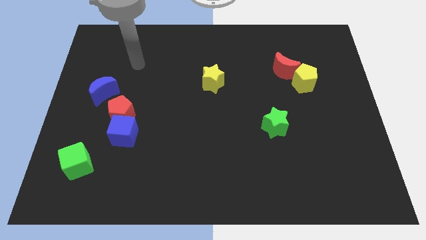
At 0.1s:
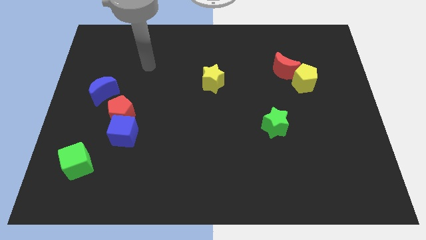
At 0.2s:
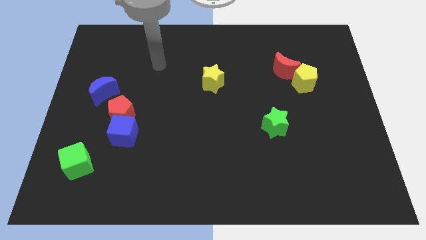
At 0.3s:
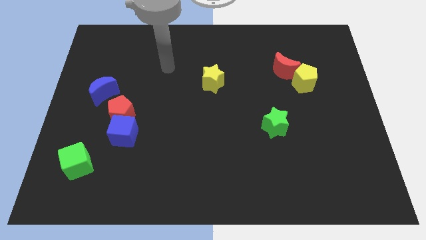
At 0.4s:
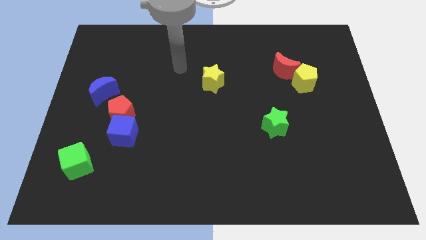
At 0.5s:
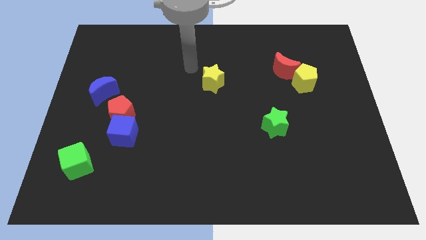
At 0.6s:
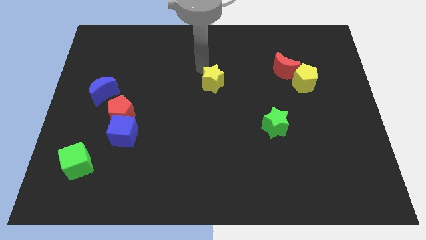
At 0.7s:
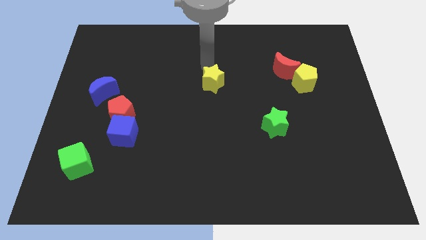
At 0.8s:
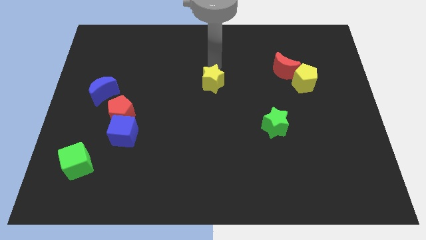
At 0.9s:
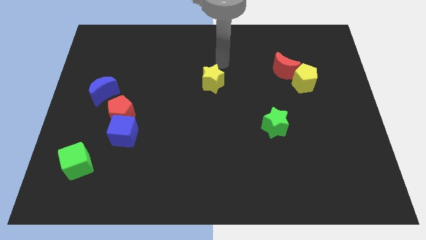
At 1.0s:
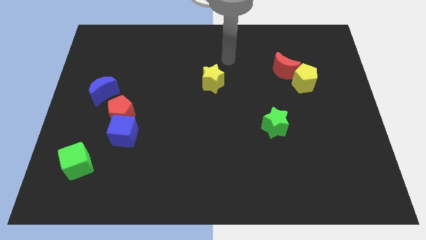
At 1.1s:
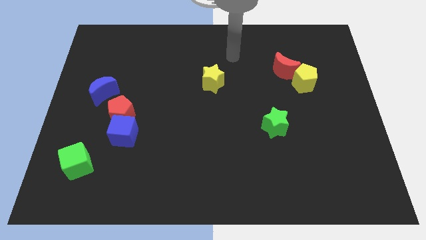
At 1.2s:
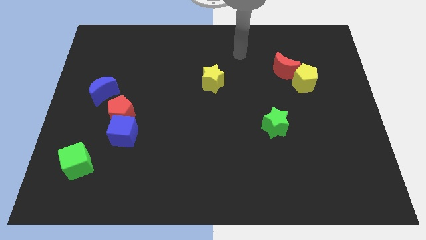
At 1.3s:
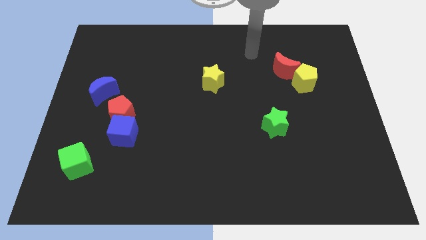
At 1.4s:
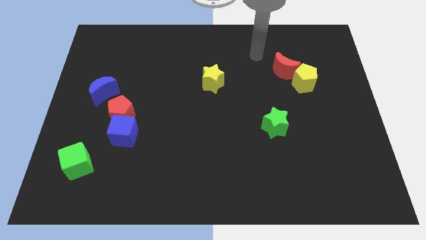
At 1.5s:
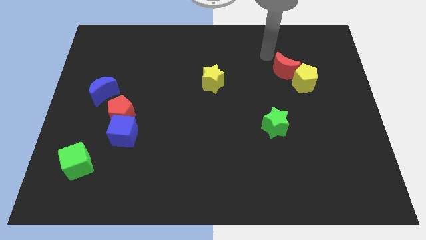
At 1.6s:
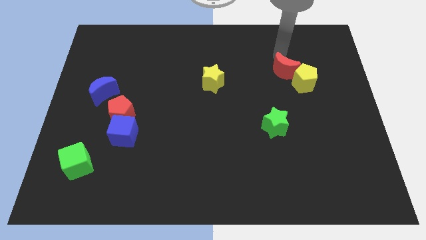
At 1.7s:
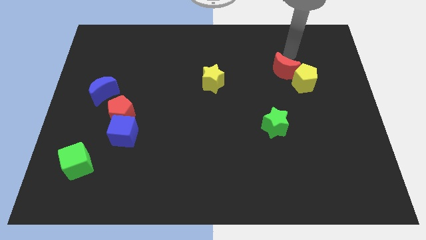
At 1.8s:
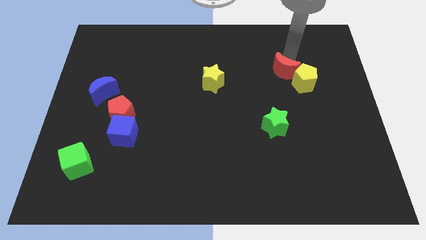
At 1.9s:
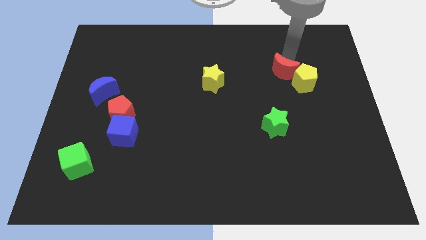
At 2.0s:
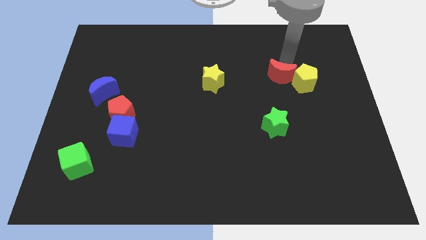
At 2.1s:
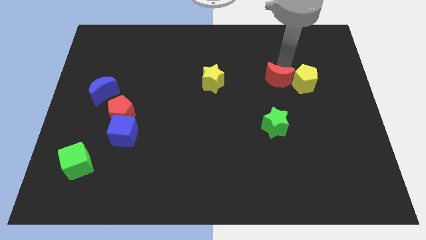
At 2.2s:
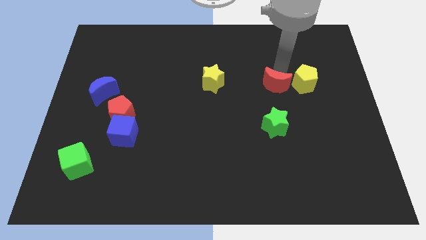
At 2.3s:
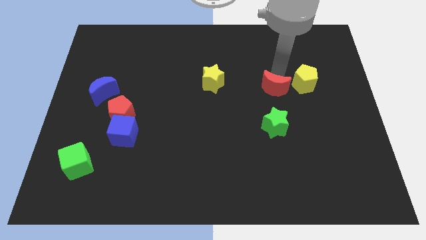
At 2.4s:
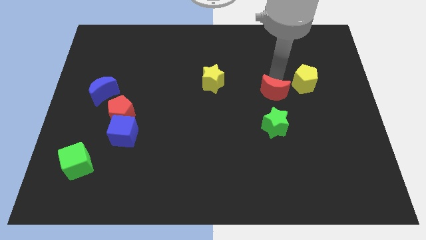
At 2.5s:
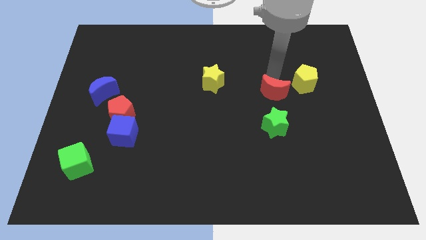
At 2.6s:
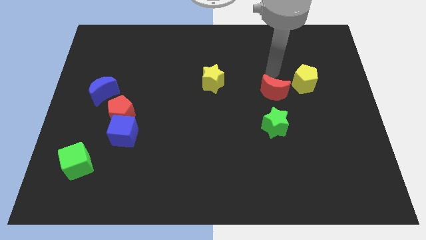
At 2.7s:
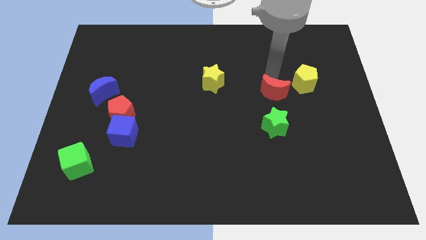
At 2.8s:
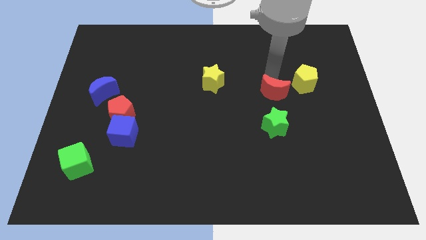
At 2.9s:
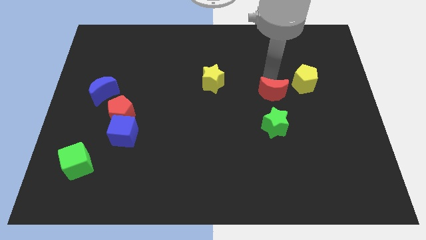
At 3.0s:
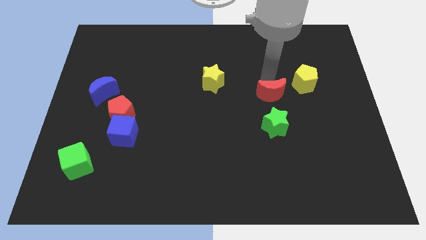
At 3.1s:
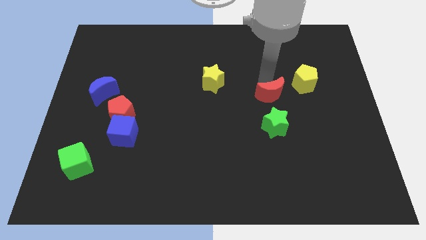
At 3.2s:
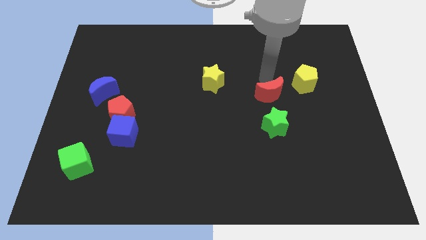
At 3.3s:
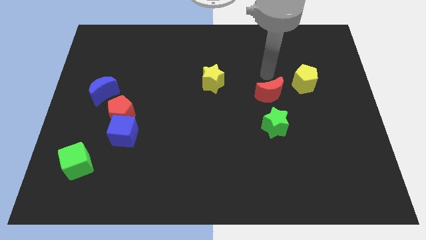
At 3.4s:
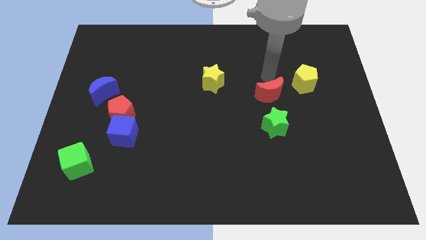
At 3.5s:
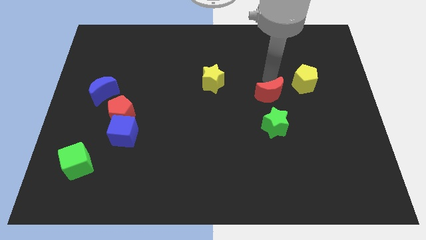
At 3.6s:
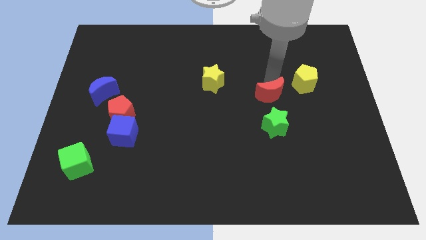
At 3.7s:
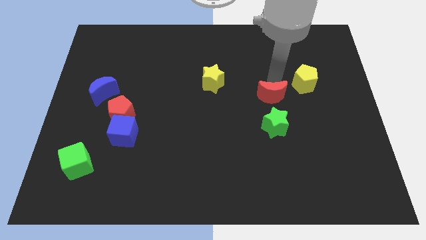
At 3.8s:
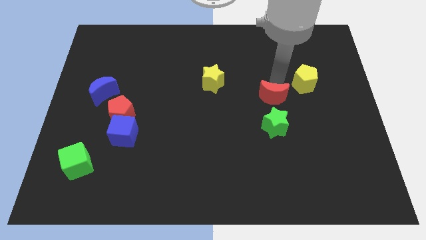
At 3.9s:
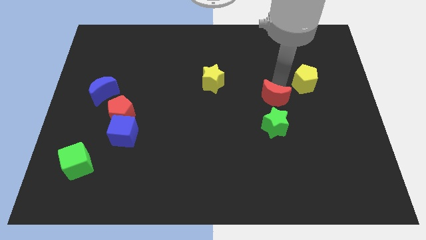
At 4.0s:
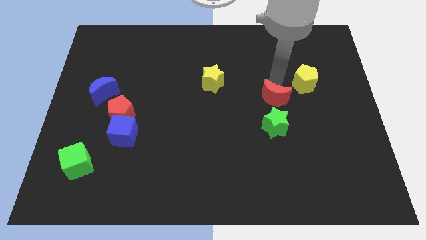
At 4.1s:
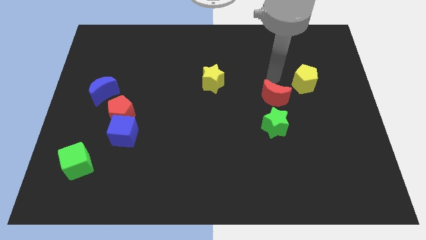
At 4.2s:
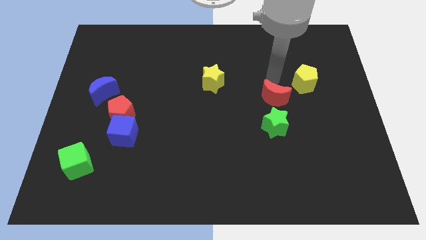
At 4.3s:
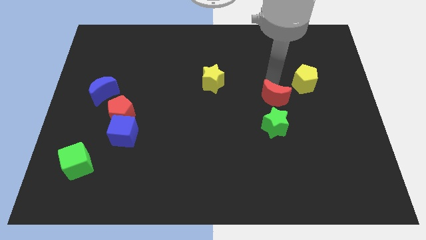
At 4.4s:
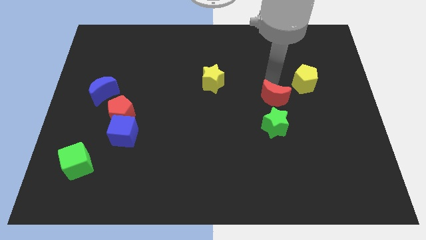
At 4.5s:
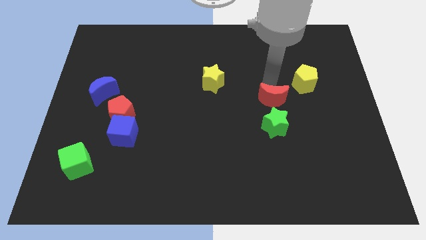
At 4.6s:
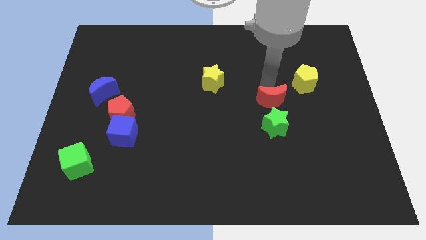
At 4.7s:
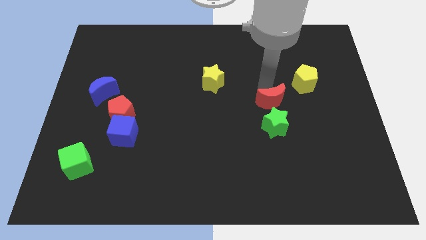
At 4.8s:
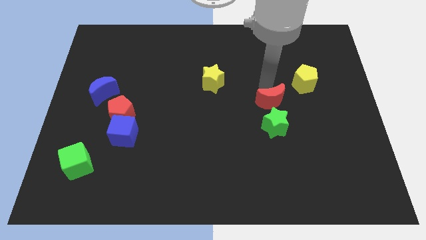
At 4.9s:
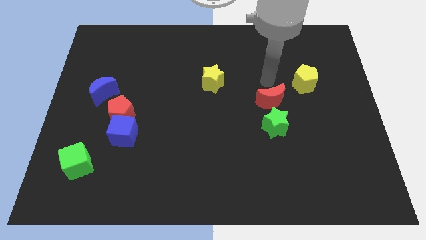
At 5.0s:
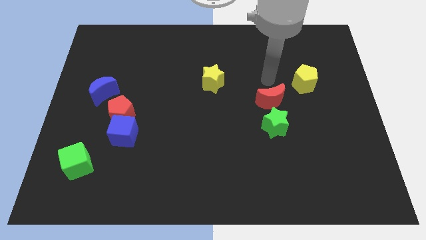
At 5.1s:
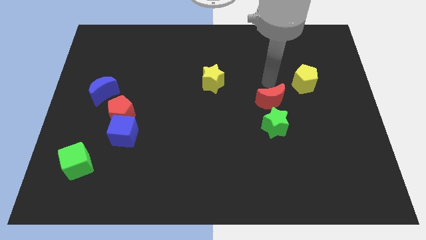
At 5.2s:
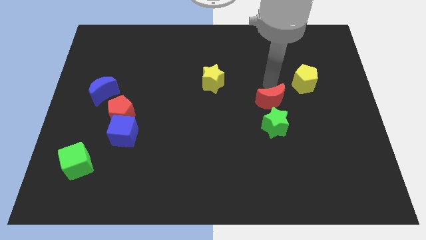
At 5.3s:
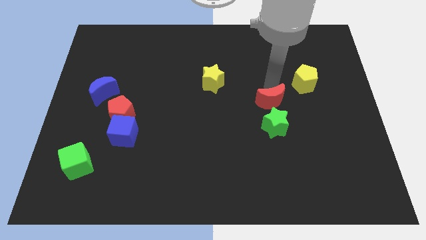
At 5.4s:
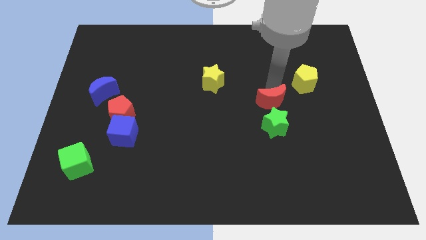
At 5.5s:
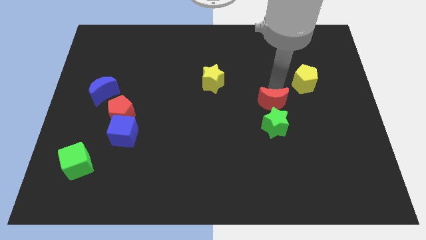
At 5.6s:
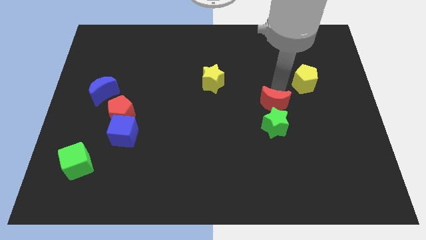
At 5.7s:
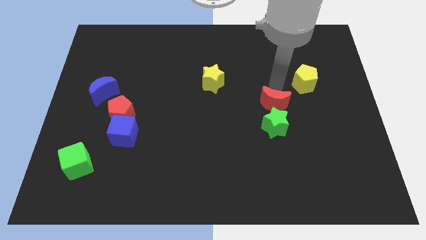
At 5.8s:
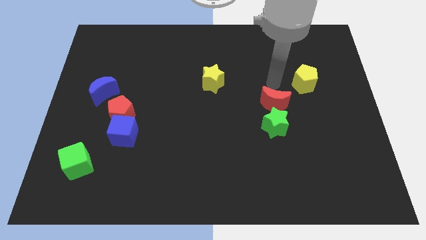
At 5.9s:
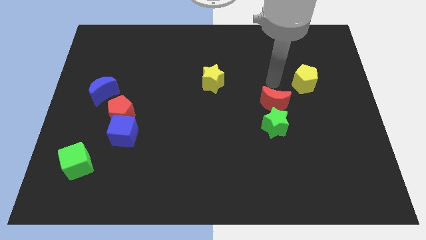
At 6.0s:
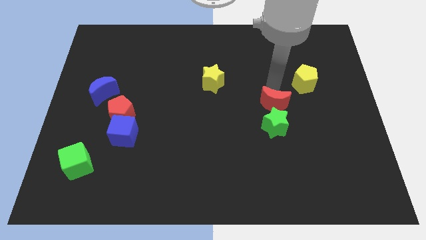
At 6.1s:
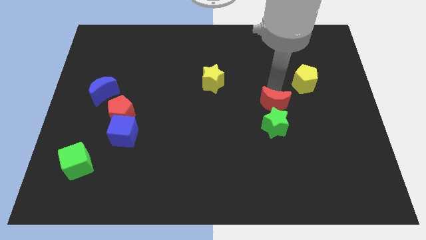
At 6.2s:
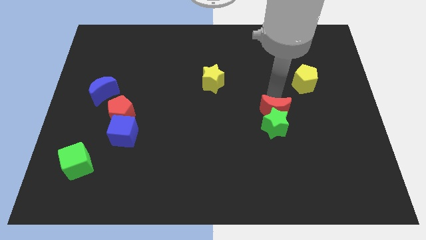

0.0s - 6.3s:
push the red moon close to the green star

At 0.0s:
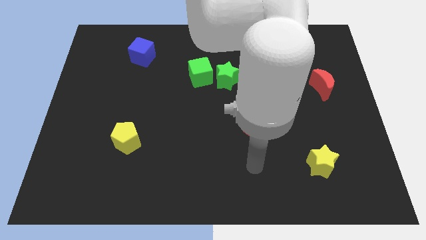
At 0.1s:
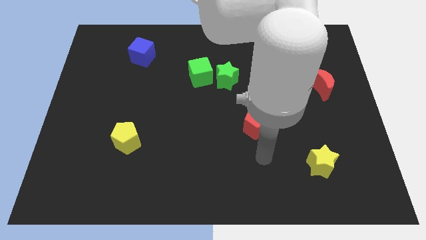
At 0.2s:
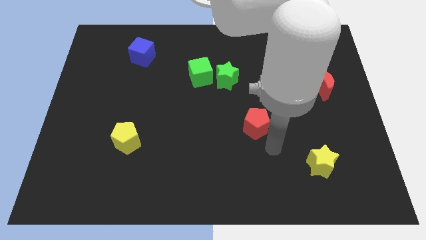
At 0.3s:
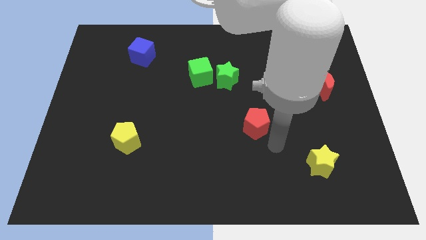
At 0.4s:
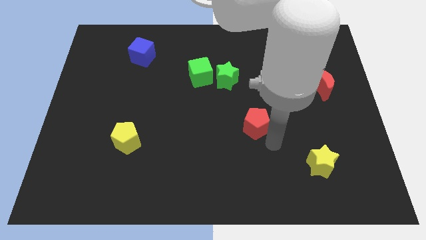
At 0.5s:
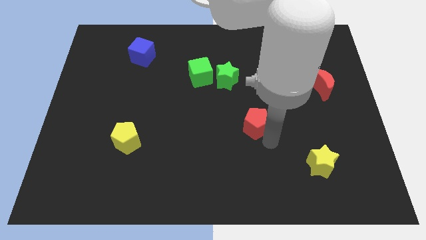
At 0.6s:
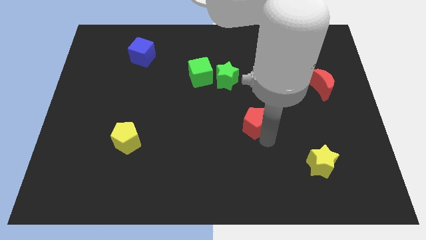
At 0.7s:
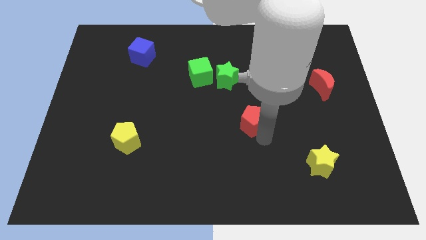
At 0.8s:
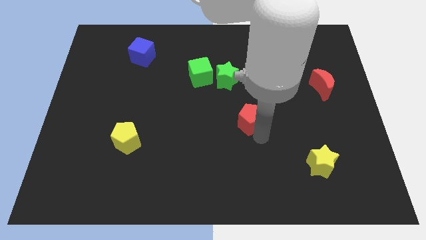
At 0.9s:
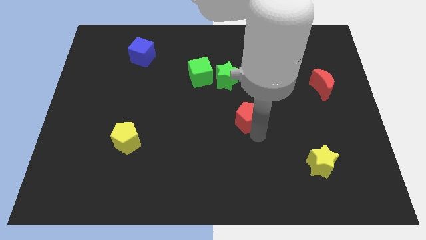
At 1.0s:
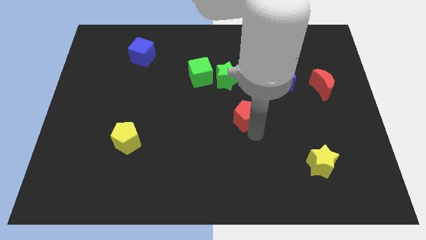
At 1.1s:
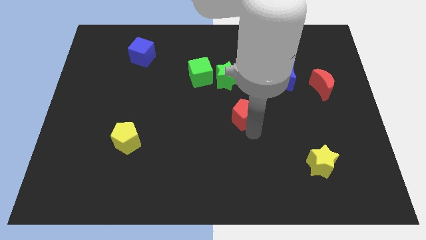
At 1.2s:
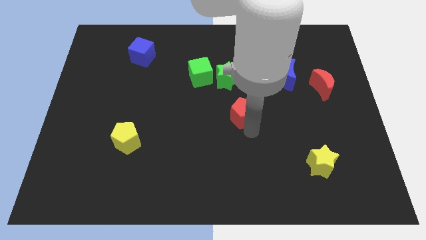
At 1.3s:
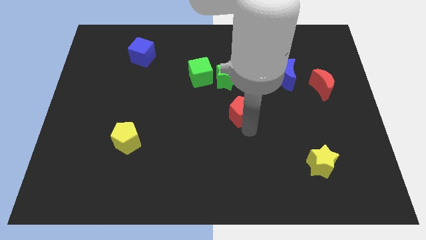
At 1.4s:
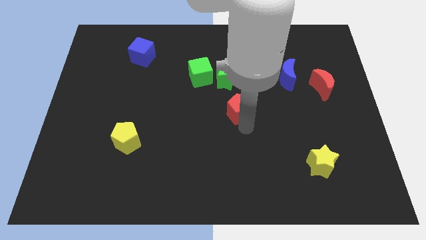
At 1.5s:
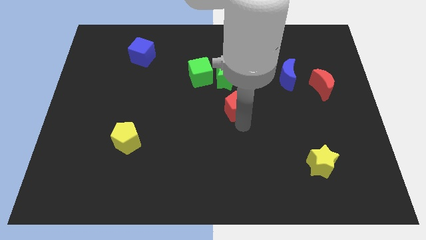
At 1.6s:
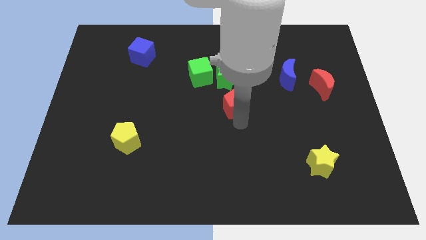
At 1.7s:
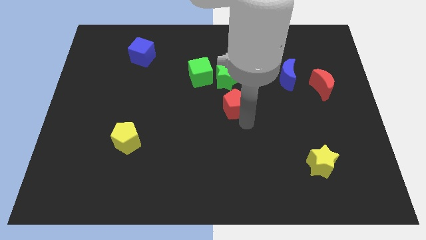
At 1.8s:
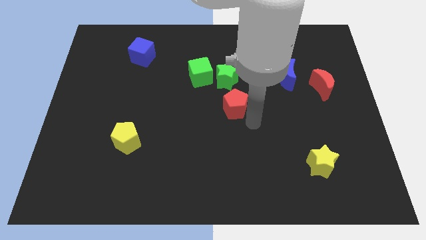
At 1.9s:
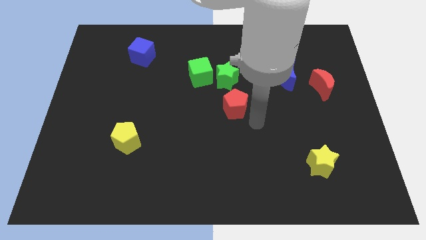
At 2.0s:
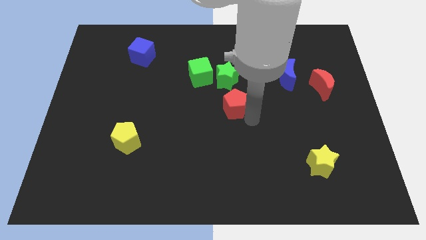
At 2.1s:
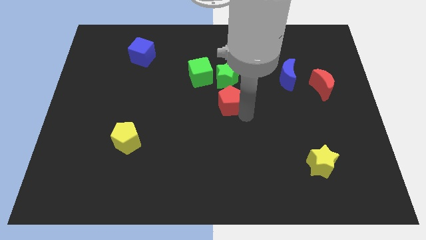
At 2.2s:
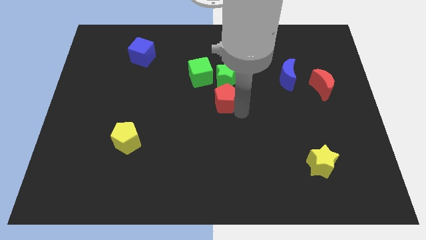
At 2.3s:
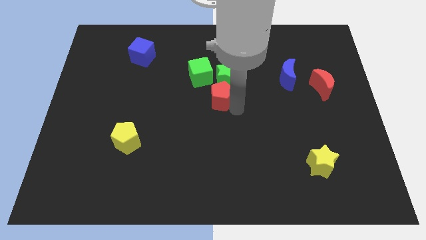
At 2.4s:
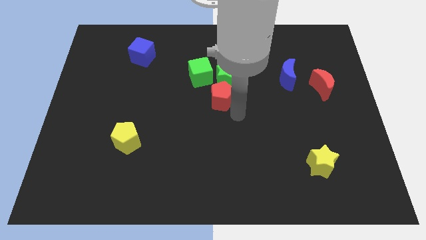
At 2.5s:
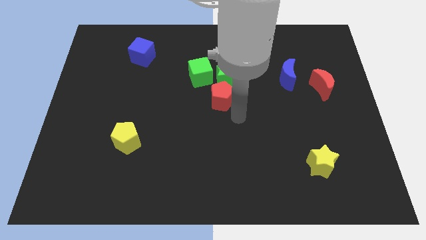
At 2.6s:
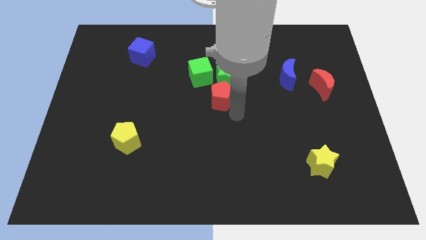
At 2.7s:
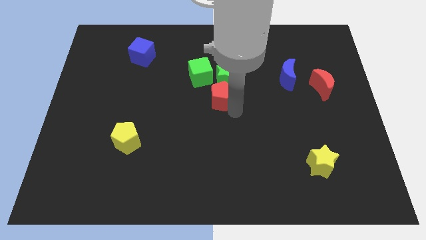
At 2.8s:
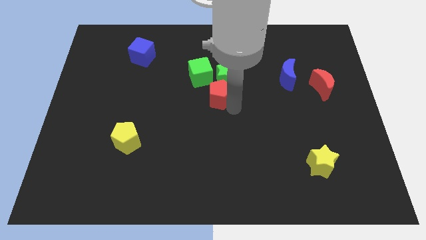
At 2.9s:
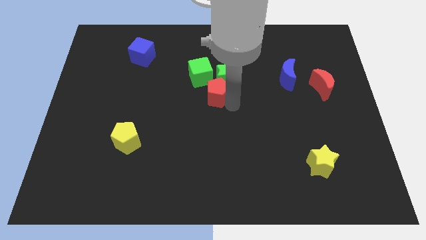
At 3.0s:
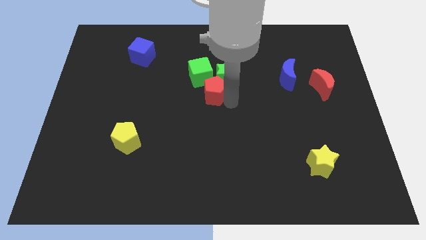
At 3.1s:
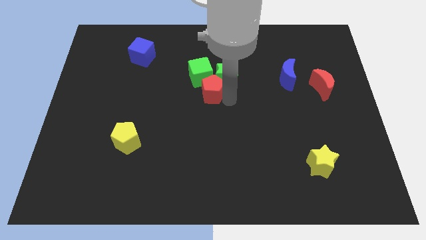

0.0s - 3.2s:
move the red pentagon towards the green cube
